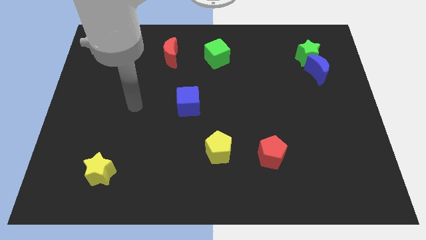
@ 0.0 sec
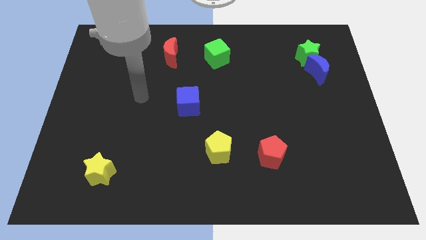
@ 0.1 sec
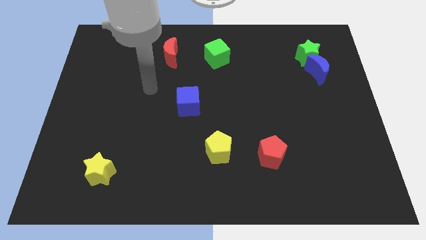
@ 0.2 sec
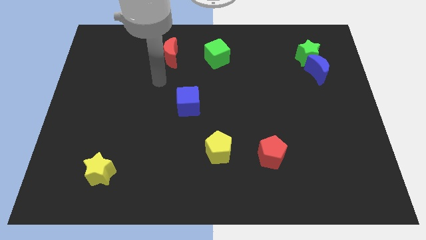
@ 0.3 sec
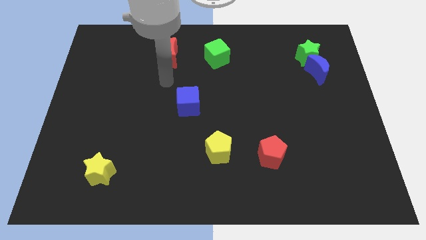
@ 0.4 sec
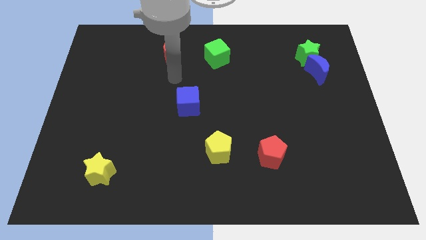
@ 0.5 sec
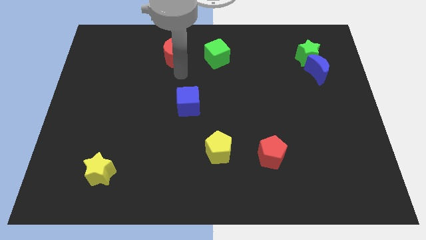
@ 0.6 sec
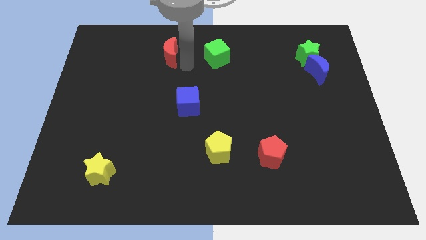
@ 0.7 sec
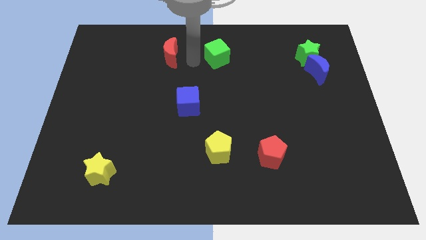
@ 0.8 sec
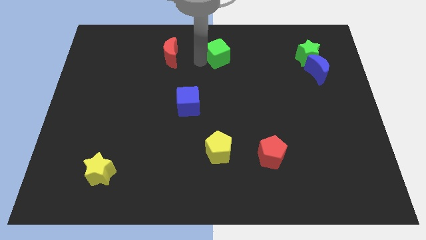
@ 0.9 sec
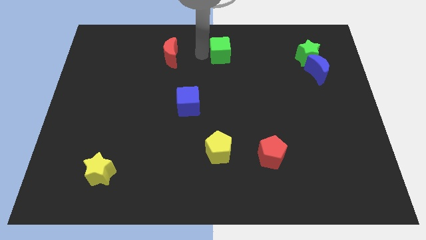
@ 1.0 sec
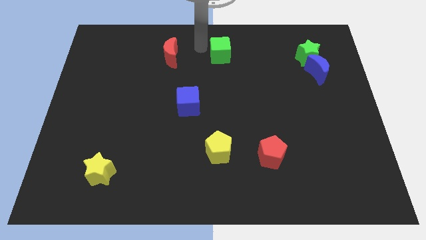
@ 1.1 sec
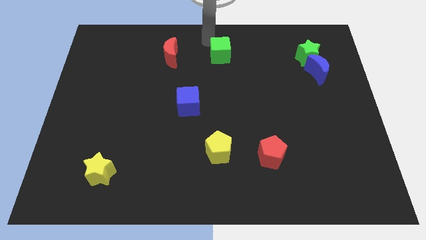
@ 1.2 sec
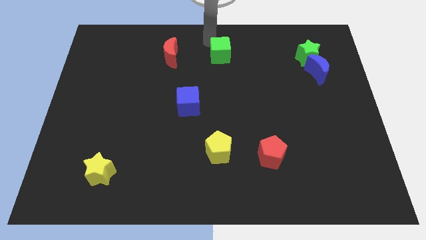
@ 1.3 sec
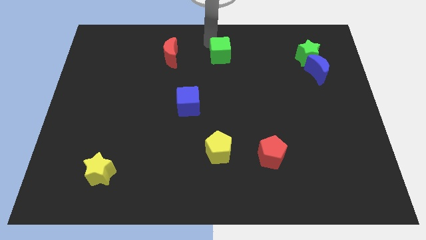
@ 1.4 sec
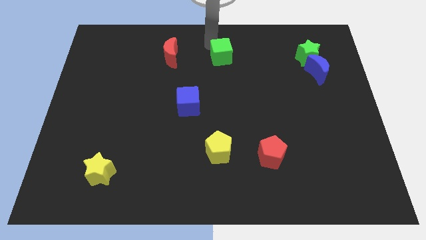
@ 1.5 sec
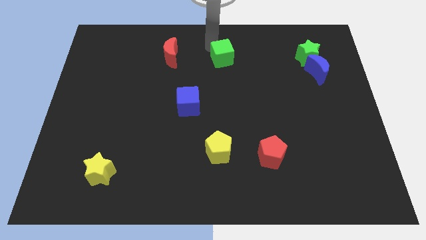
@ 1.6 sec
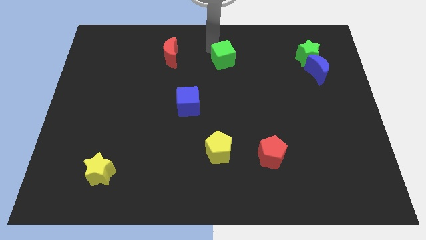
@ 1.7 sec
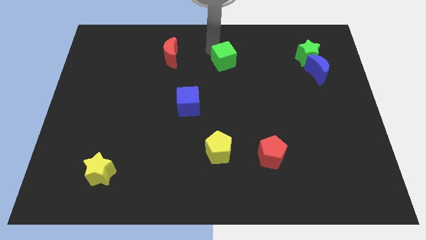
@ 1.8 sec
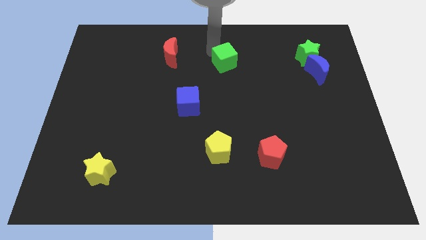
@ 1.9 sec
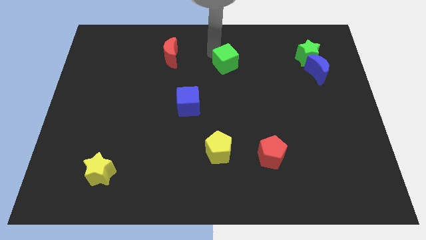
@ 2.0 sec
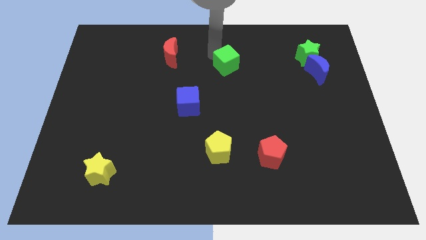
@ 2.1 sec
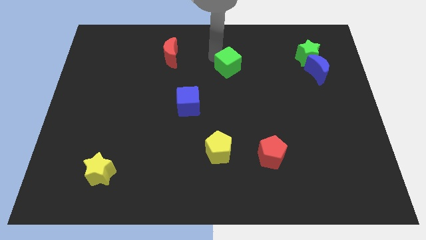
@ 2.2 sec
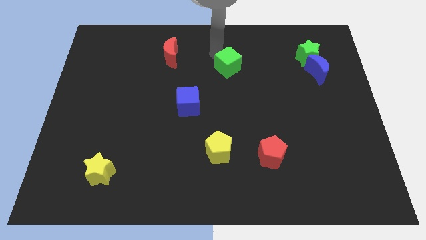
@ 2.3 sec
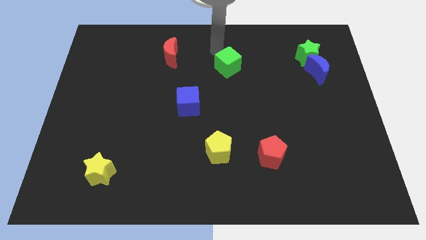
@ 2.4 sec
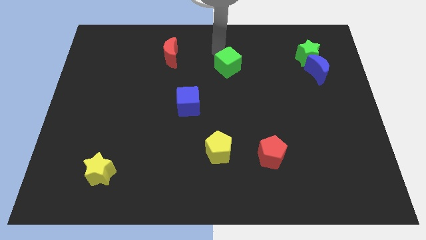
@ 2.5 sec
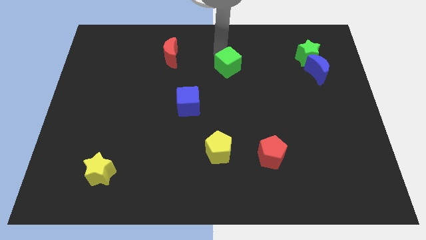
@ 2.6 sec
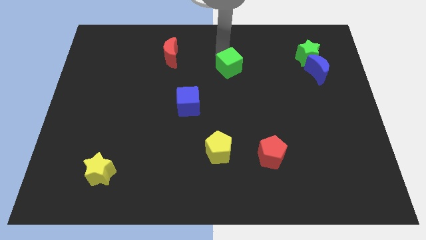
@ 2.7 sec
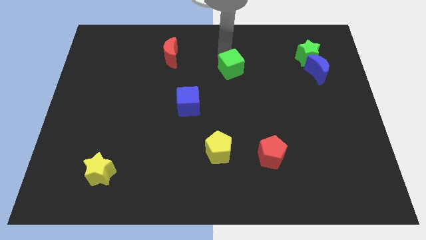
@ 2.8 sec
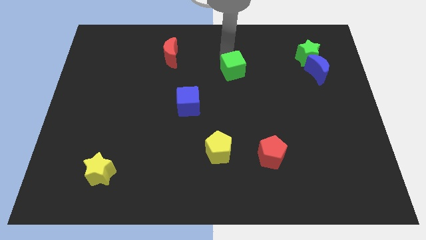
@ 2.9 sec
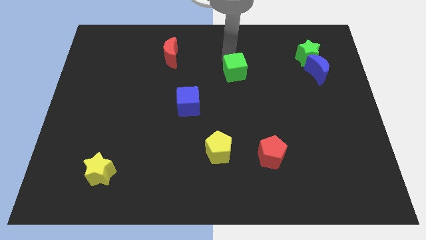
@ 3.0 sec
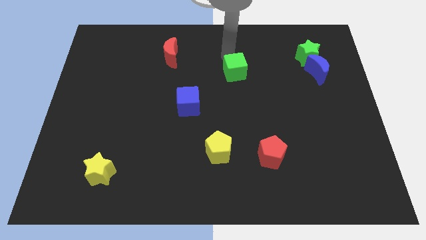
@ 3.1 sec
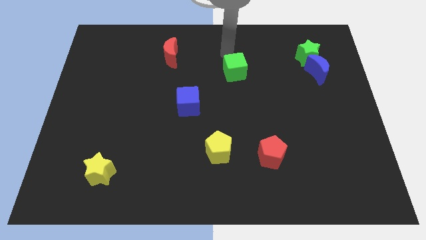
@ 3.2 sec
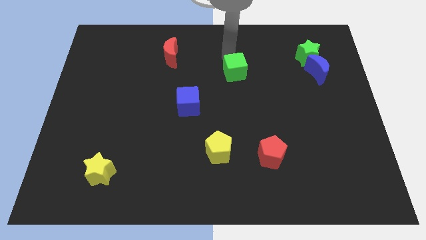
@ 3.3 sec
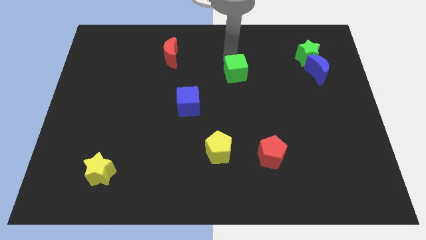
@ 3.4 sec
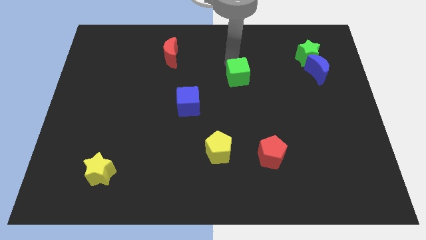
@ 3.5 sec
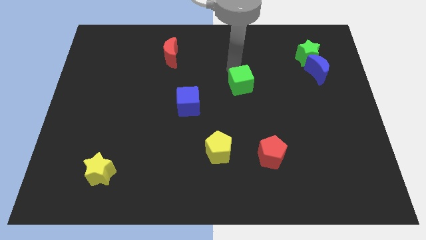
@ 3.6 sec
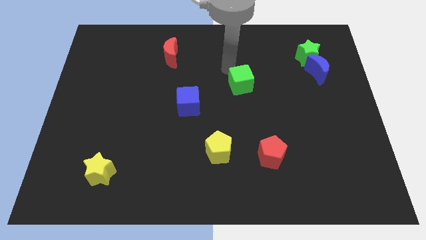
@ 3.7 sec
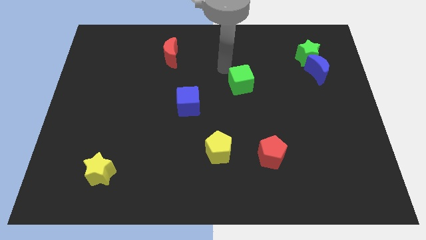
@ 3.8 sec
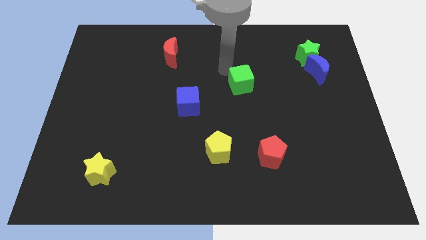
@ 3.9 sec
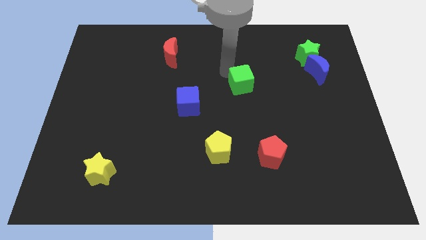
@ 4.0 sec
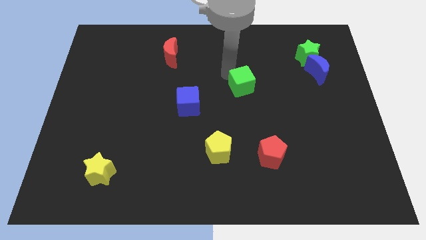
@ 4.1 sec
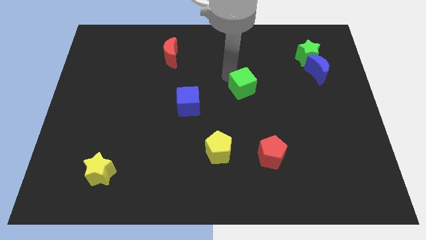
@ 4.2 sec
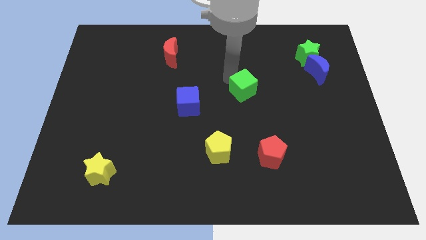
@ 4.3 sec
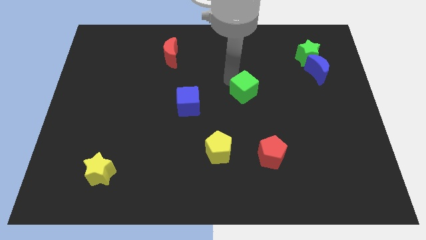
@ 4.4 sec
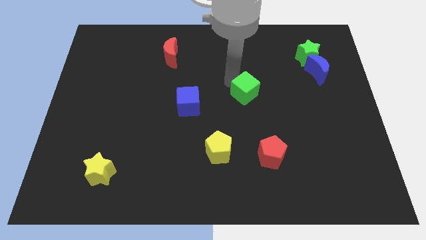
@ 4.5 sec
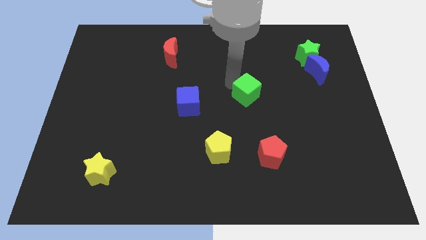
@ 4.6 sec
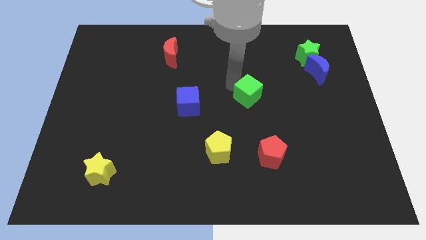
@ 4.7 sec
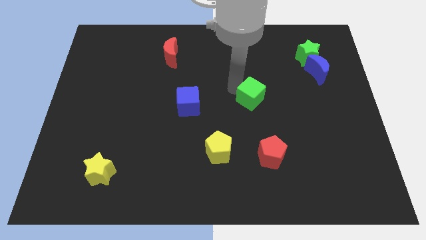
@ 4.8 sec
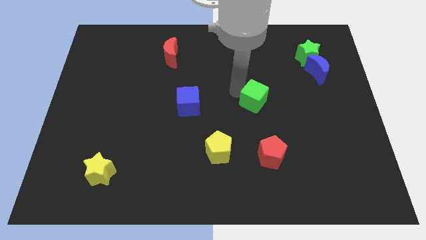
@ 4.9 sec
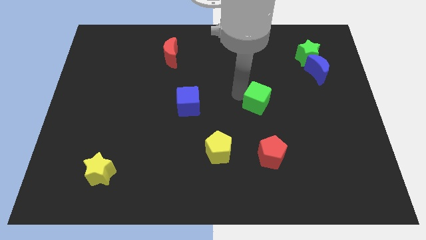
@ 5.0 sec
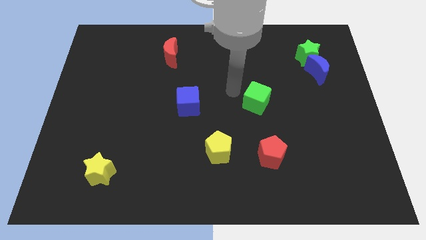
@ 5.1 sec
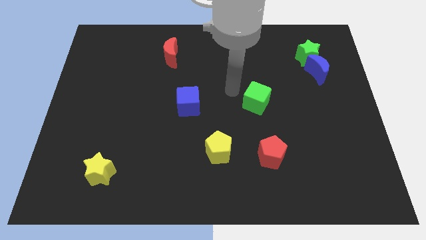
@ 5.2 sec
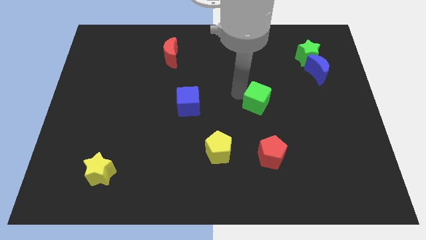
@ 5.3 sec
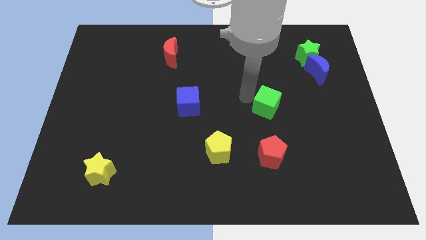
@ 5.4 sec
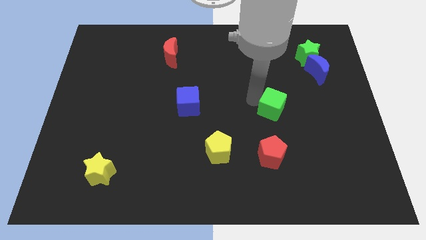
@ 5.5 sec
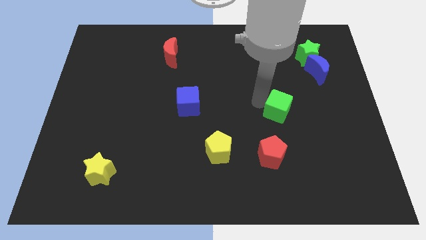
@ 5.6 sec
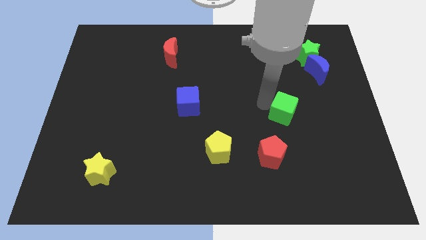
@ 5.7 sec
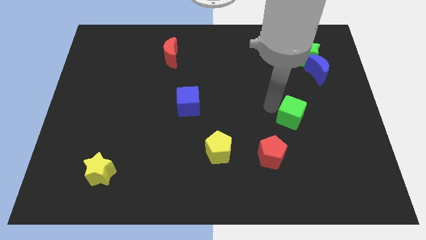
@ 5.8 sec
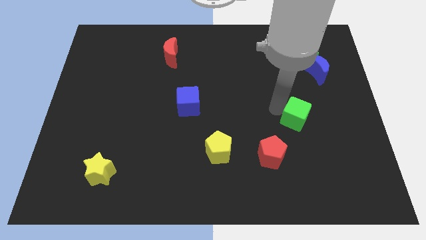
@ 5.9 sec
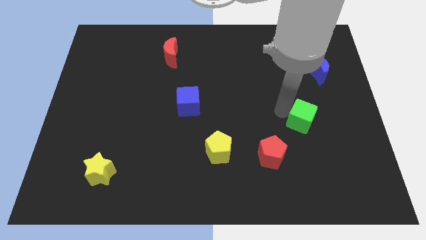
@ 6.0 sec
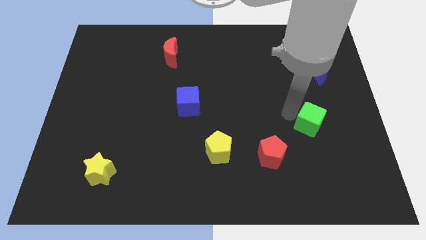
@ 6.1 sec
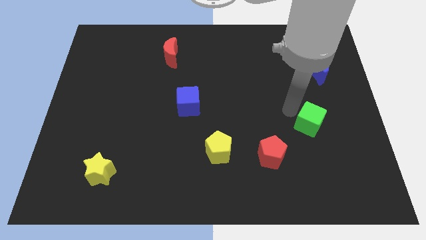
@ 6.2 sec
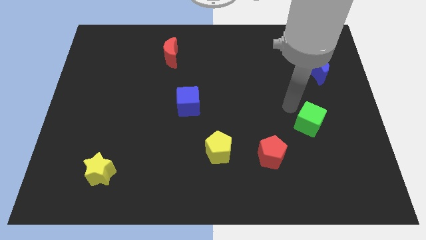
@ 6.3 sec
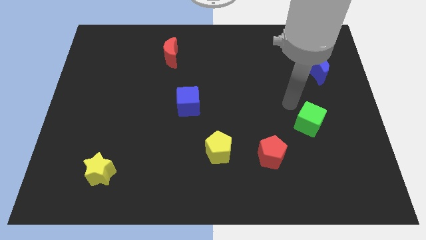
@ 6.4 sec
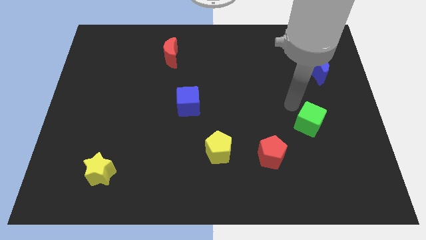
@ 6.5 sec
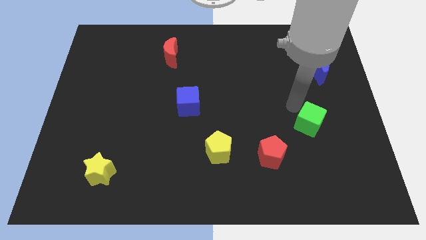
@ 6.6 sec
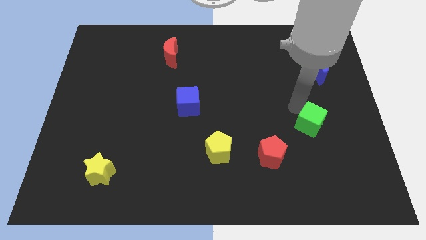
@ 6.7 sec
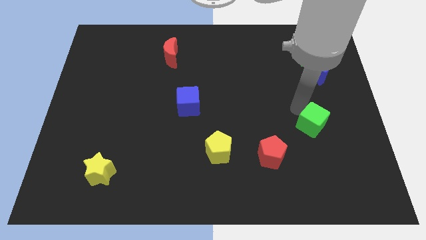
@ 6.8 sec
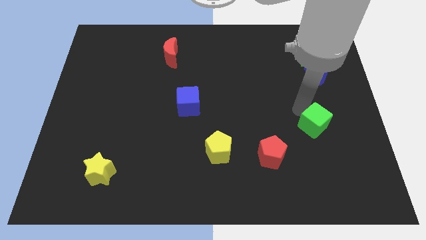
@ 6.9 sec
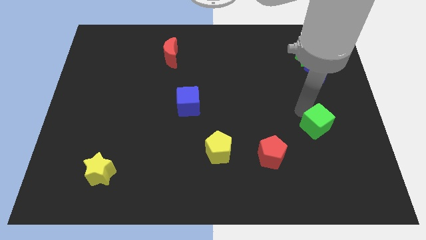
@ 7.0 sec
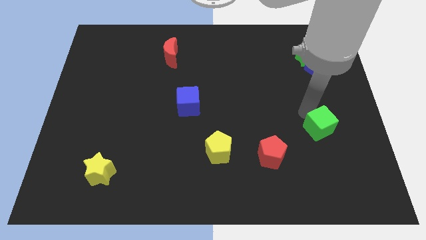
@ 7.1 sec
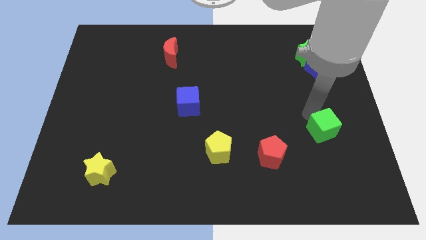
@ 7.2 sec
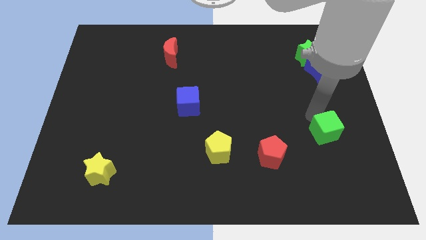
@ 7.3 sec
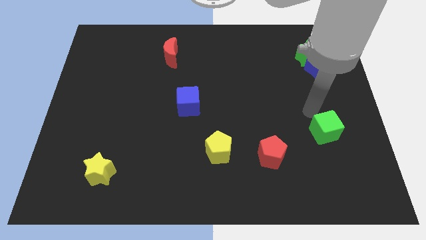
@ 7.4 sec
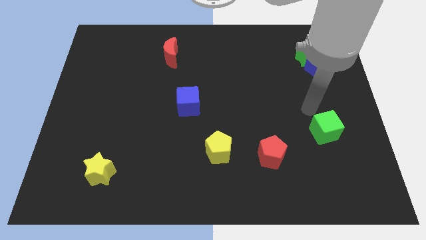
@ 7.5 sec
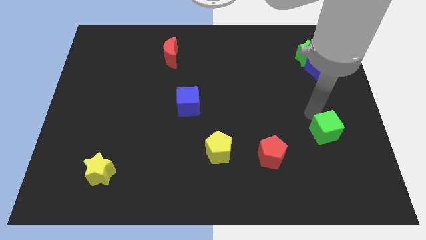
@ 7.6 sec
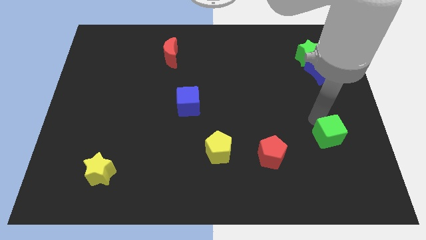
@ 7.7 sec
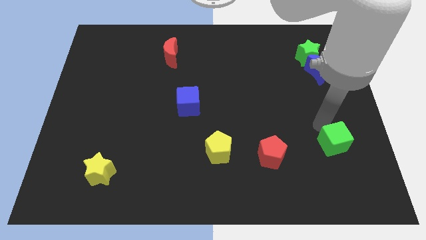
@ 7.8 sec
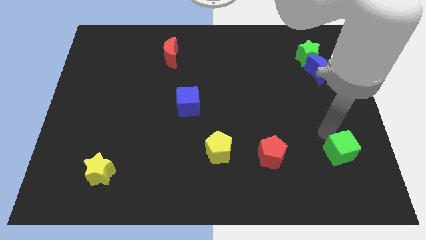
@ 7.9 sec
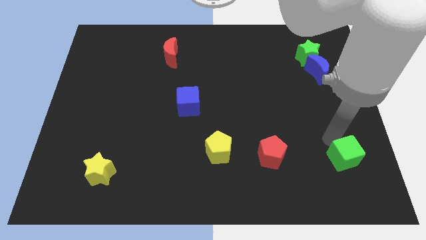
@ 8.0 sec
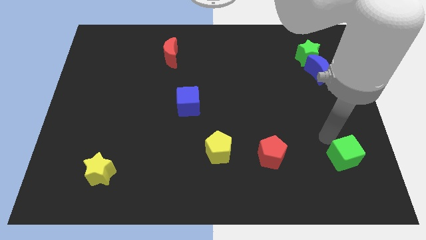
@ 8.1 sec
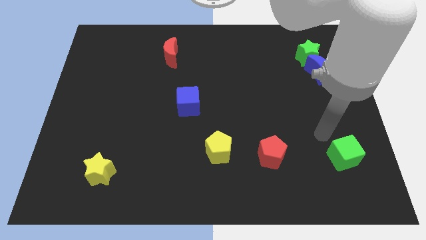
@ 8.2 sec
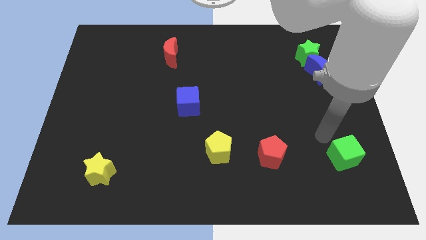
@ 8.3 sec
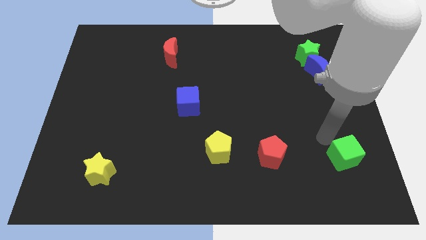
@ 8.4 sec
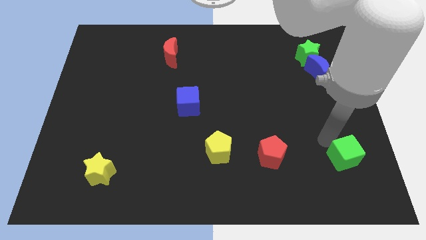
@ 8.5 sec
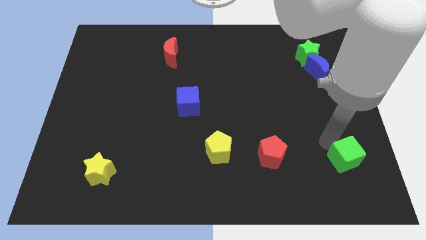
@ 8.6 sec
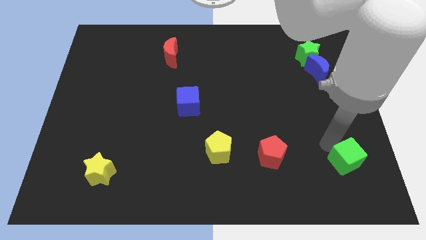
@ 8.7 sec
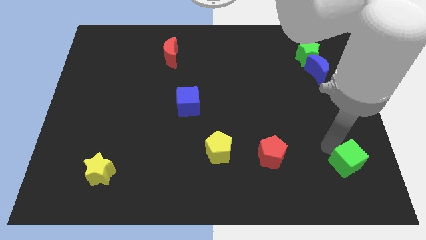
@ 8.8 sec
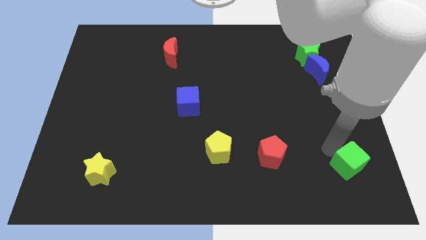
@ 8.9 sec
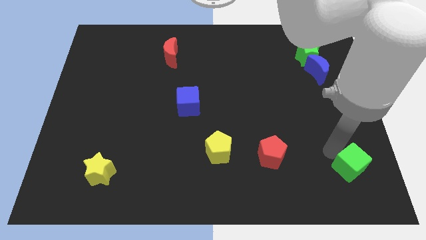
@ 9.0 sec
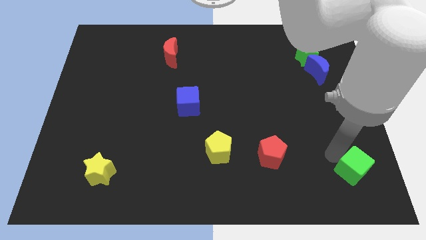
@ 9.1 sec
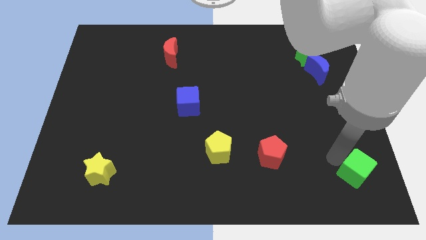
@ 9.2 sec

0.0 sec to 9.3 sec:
move the green cube to the bottom right of the board
